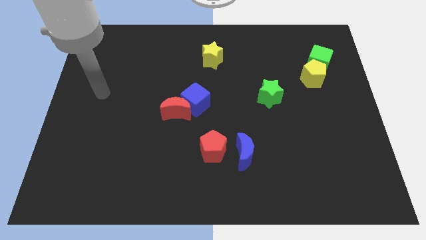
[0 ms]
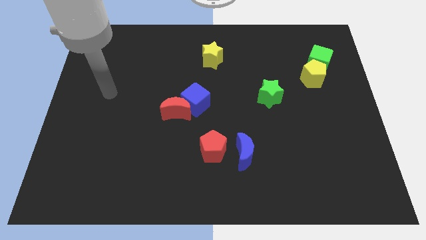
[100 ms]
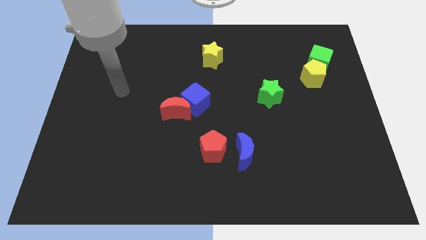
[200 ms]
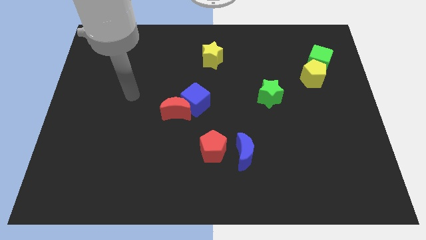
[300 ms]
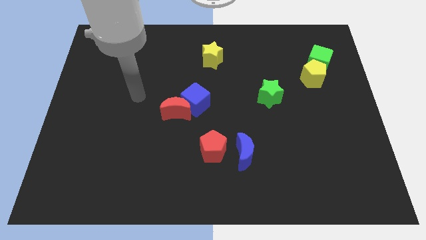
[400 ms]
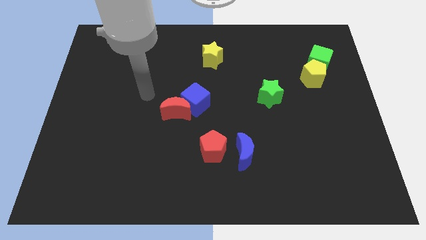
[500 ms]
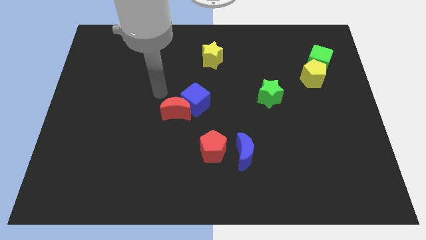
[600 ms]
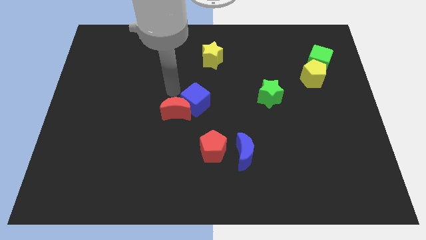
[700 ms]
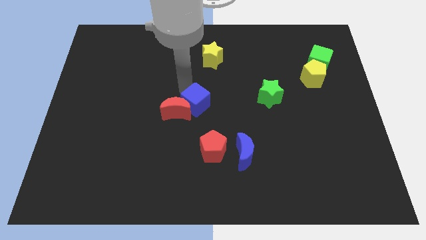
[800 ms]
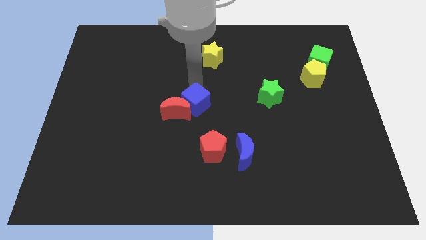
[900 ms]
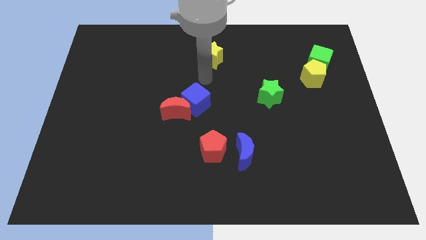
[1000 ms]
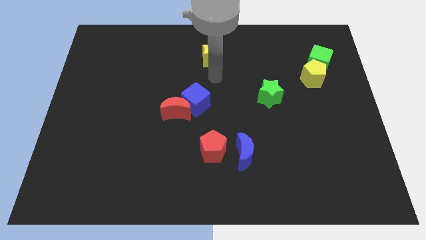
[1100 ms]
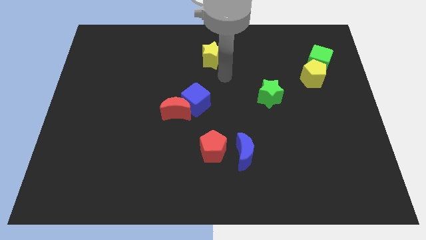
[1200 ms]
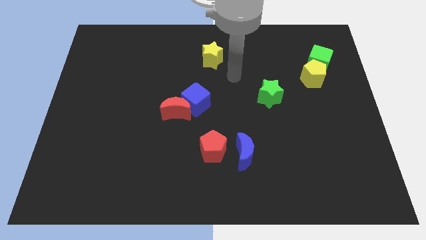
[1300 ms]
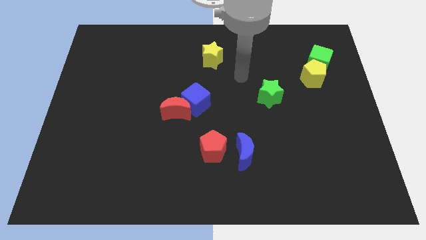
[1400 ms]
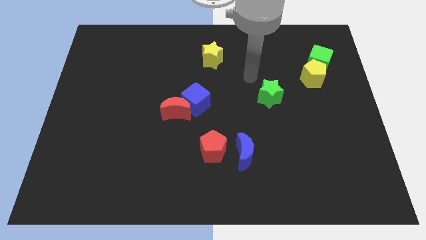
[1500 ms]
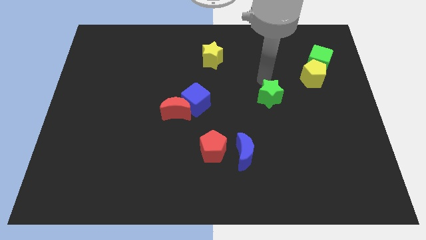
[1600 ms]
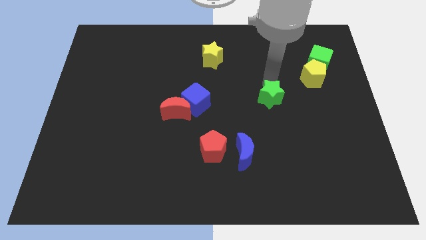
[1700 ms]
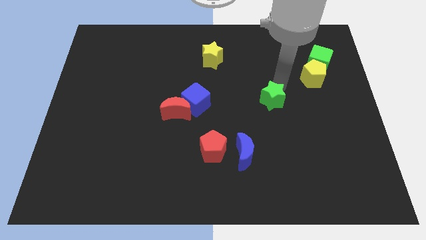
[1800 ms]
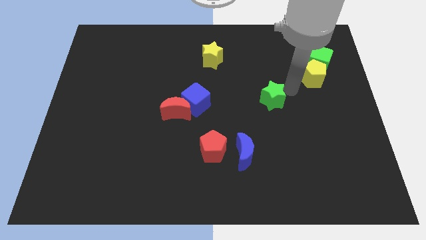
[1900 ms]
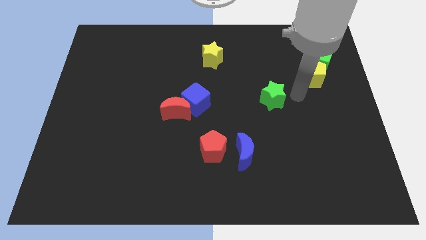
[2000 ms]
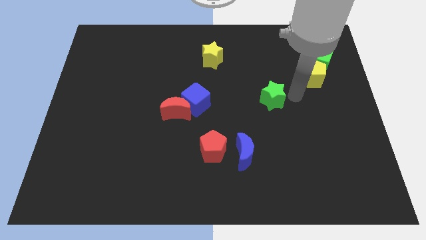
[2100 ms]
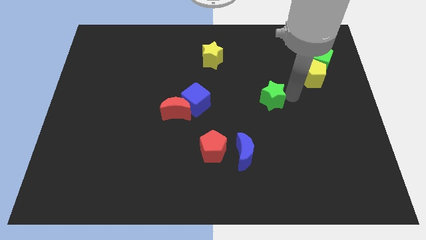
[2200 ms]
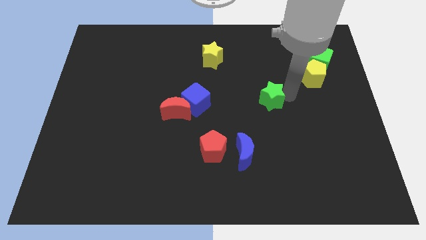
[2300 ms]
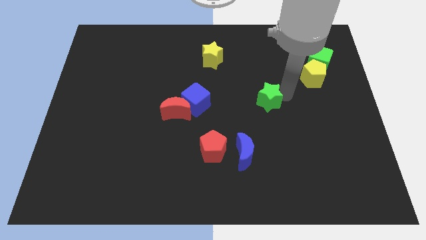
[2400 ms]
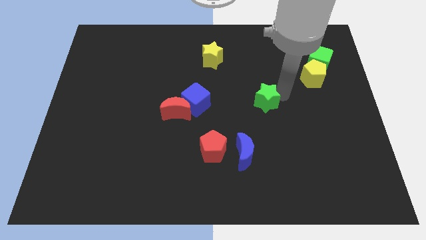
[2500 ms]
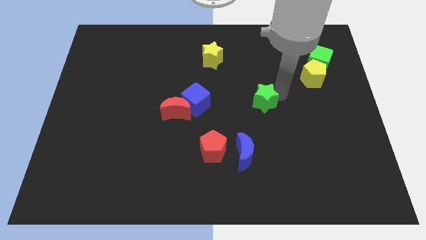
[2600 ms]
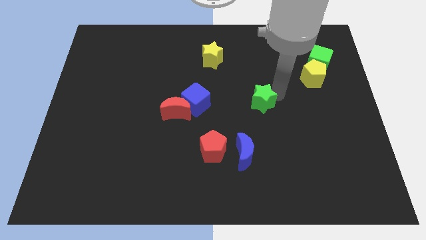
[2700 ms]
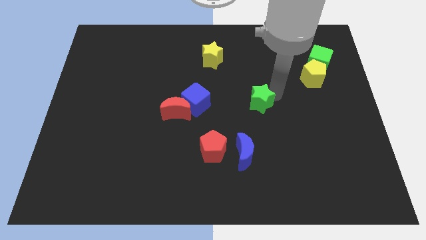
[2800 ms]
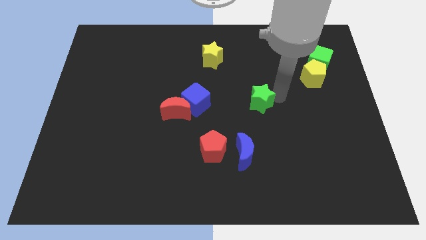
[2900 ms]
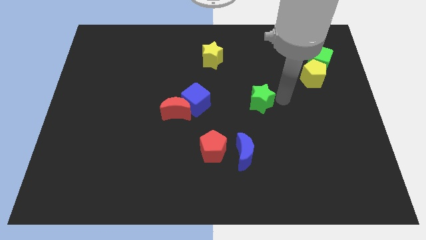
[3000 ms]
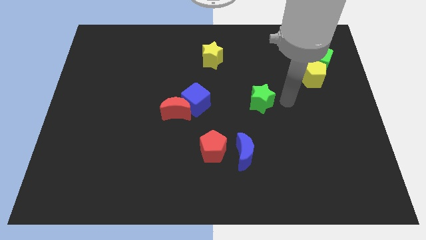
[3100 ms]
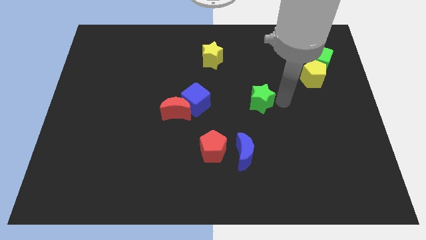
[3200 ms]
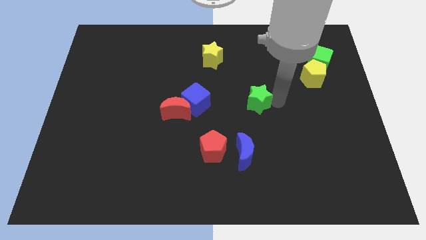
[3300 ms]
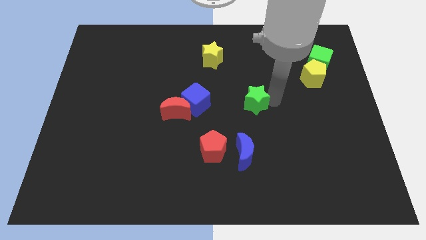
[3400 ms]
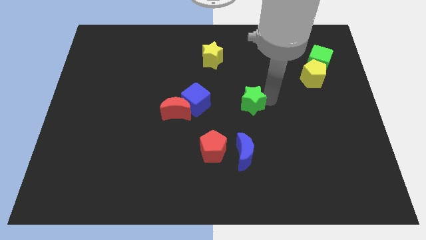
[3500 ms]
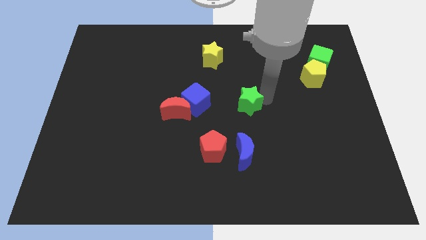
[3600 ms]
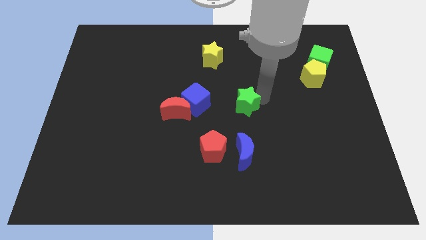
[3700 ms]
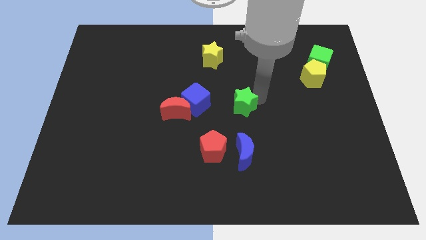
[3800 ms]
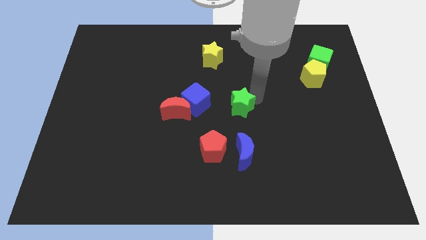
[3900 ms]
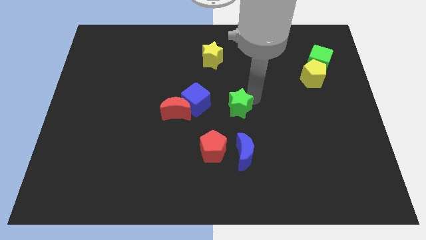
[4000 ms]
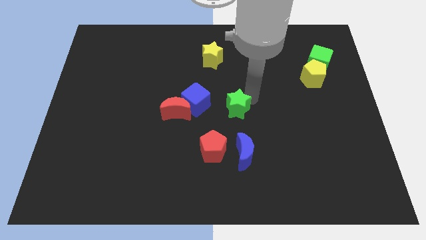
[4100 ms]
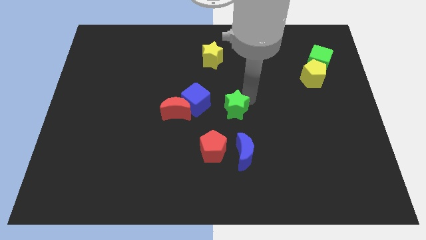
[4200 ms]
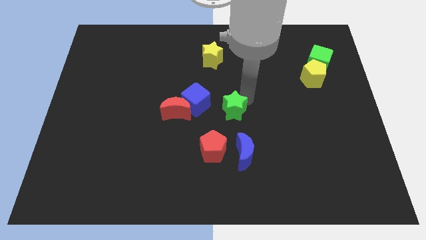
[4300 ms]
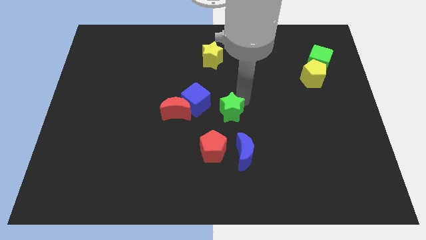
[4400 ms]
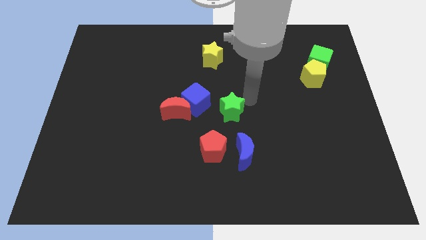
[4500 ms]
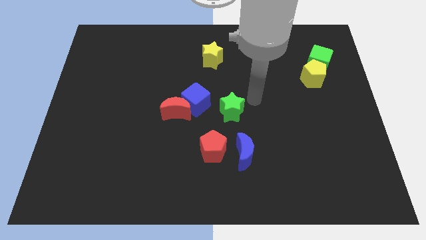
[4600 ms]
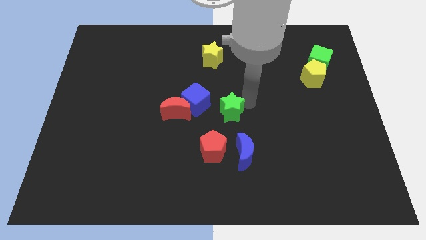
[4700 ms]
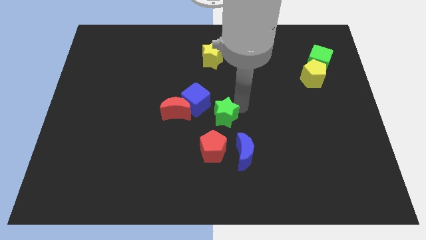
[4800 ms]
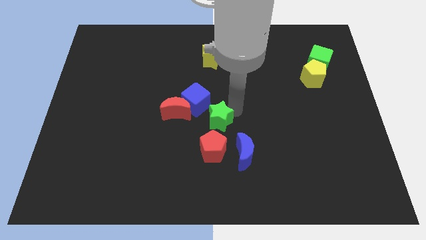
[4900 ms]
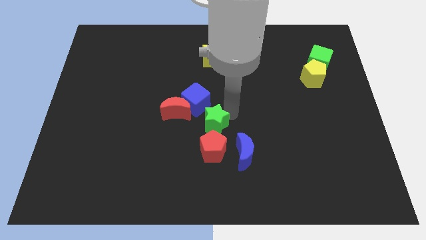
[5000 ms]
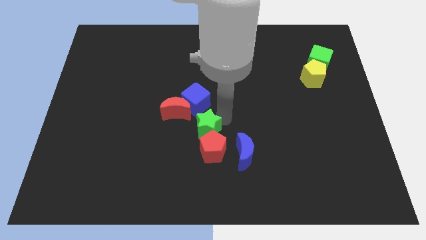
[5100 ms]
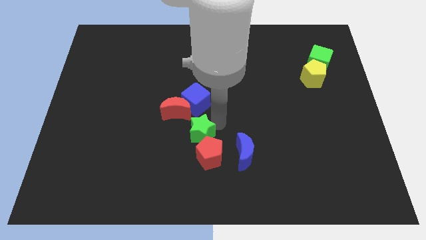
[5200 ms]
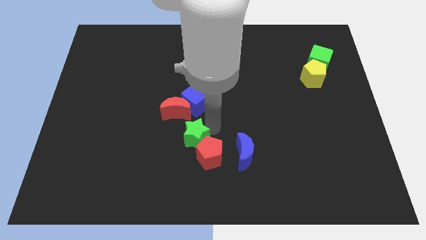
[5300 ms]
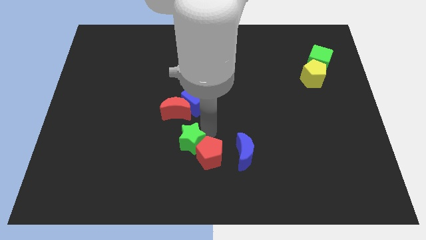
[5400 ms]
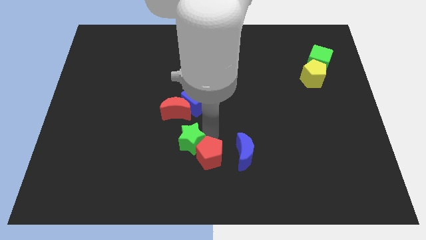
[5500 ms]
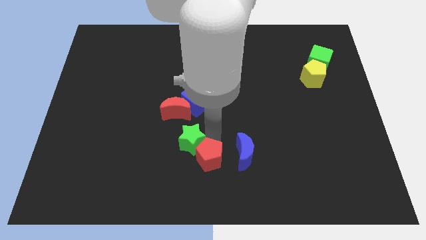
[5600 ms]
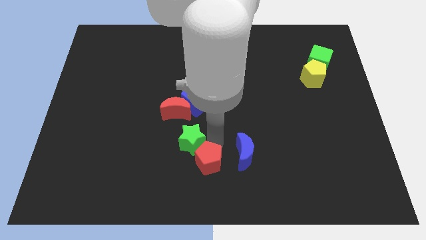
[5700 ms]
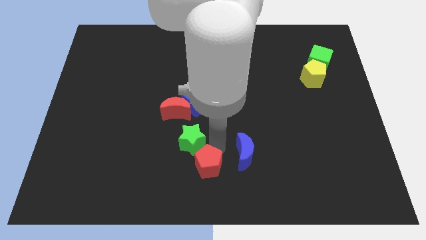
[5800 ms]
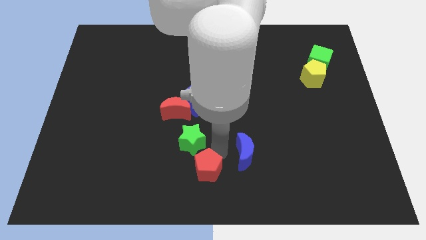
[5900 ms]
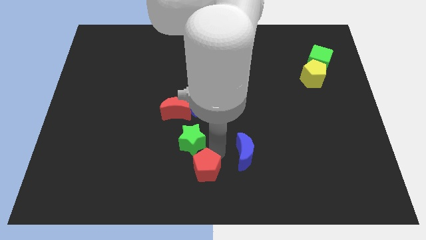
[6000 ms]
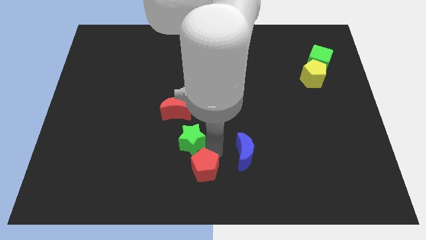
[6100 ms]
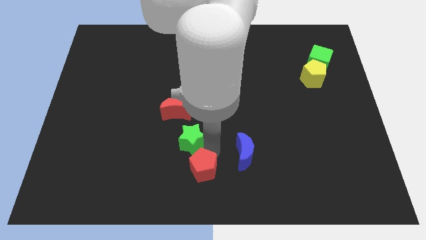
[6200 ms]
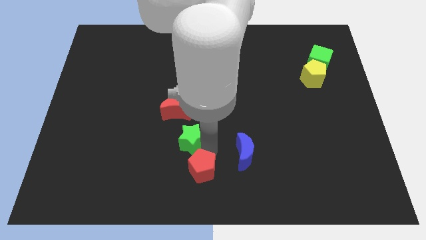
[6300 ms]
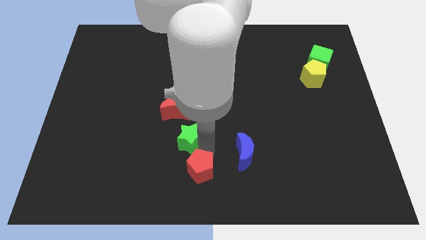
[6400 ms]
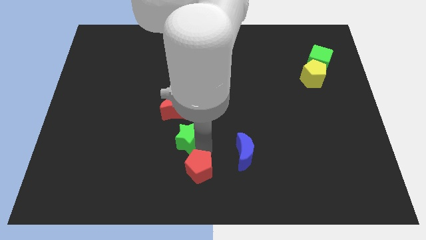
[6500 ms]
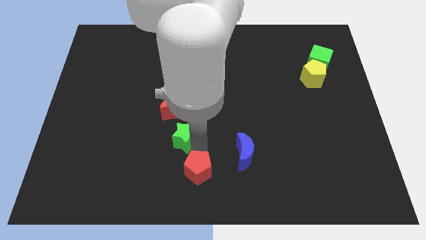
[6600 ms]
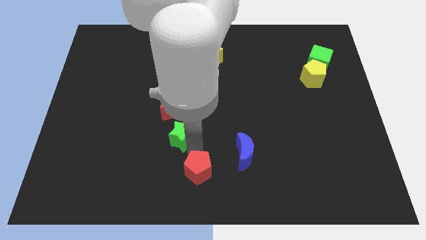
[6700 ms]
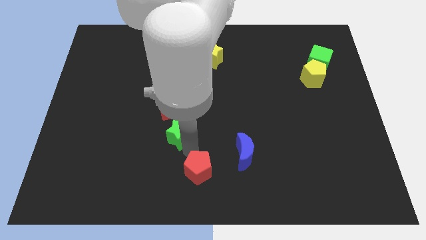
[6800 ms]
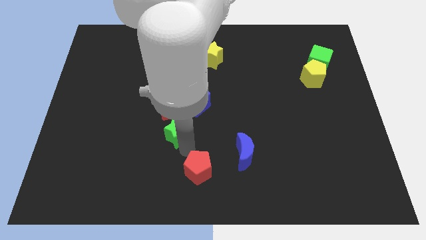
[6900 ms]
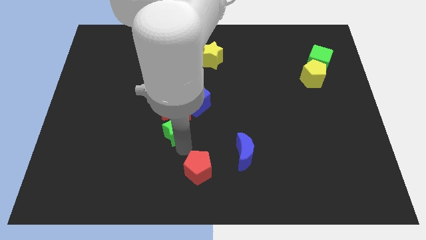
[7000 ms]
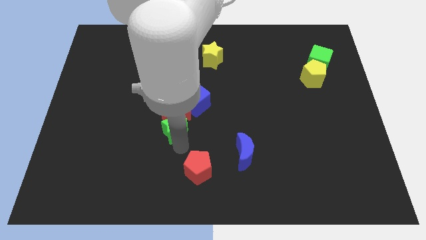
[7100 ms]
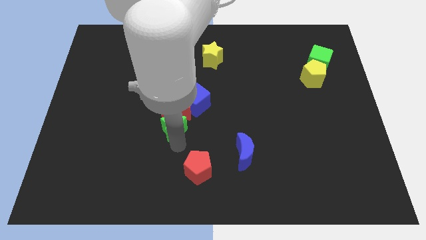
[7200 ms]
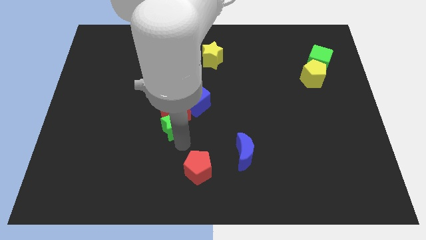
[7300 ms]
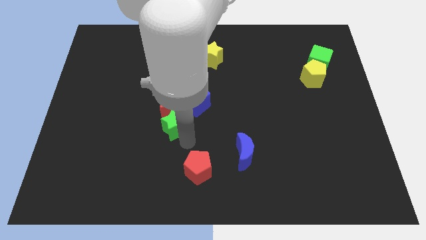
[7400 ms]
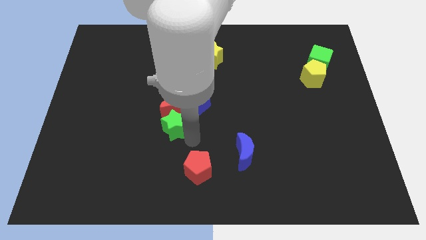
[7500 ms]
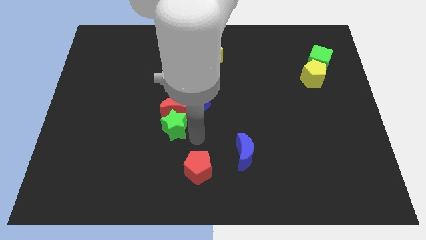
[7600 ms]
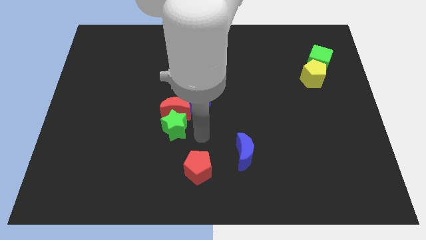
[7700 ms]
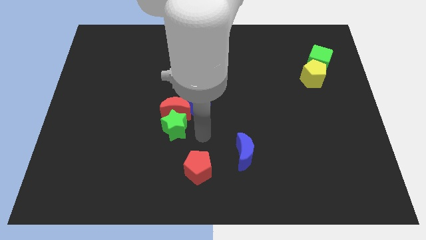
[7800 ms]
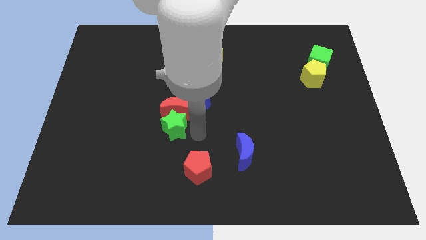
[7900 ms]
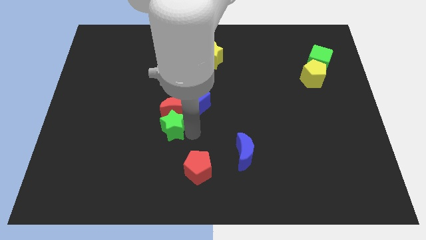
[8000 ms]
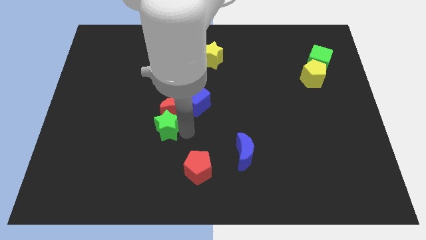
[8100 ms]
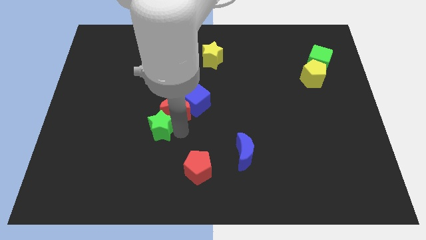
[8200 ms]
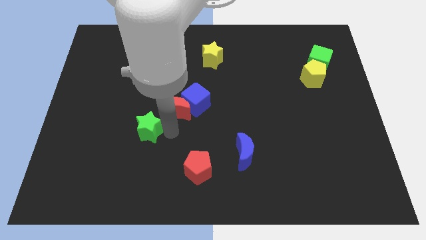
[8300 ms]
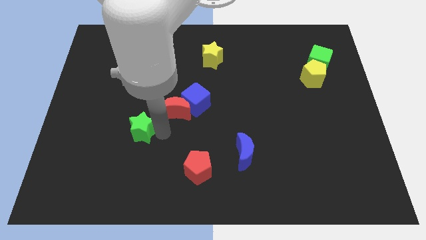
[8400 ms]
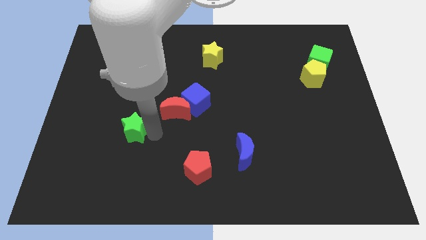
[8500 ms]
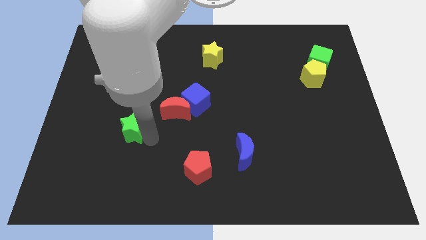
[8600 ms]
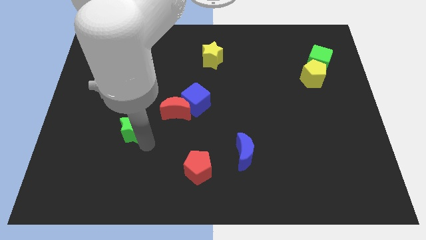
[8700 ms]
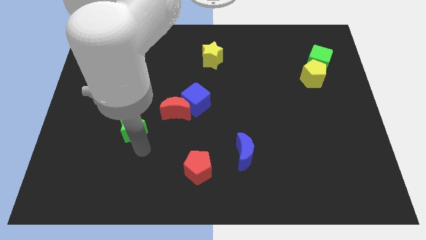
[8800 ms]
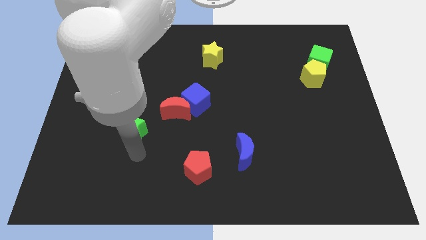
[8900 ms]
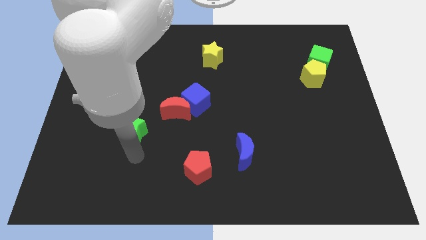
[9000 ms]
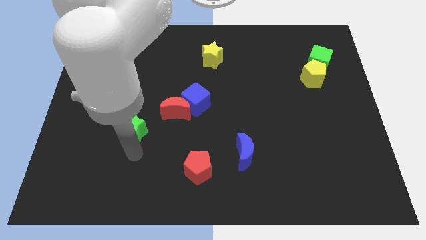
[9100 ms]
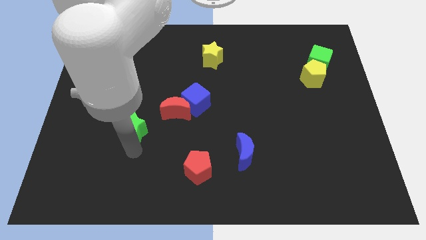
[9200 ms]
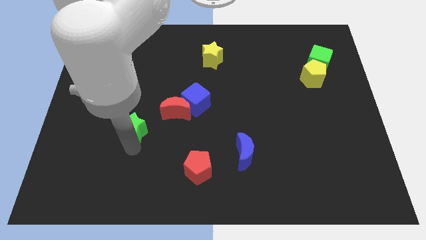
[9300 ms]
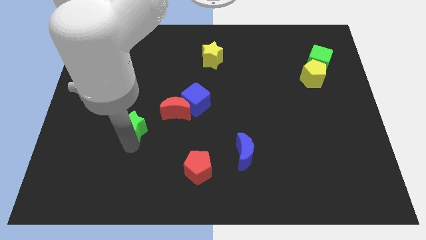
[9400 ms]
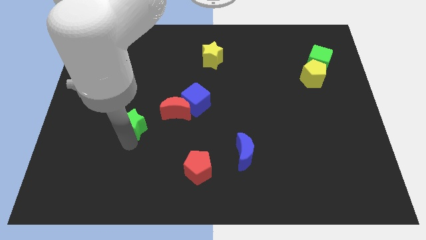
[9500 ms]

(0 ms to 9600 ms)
slide the green star to the left of the red moon
